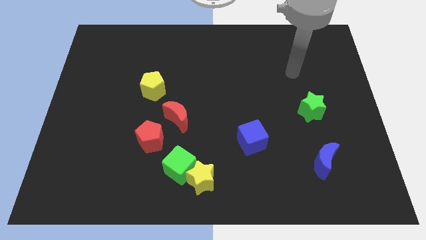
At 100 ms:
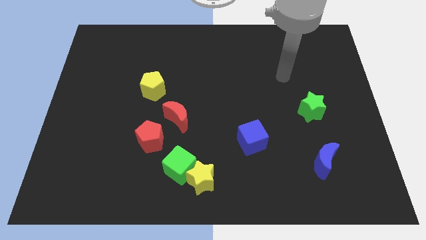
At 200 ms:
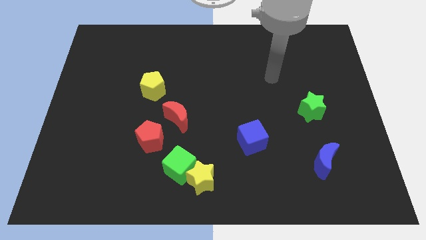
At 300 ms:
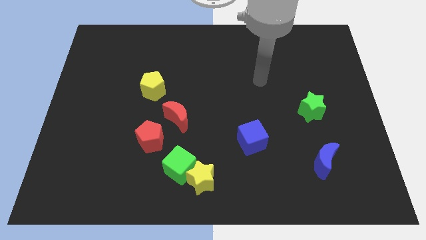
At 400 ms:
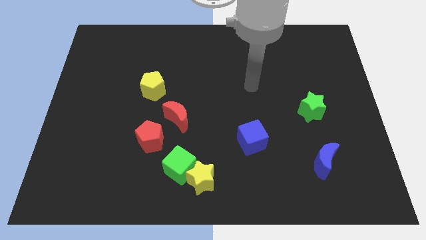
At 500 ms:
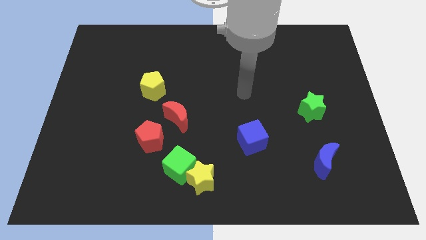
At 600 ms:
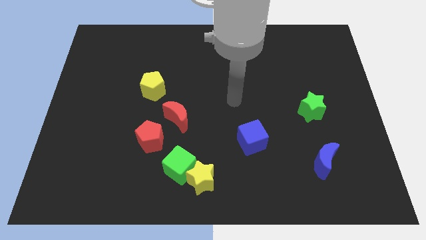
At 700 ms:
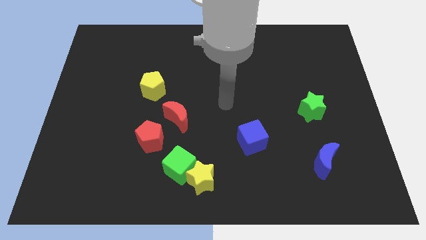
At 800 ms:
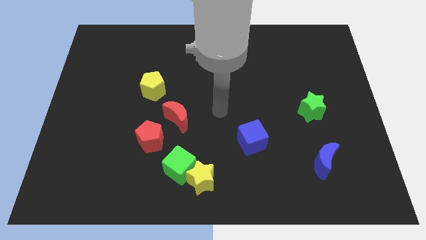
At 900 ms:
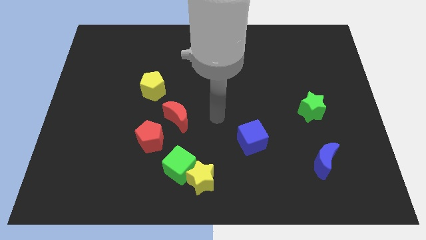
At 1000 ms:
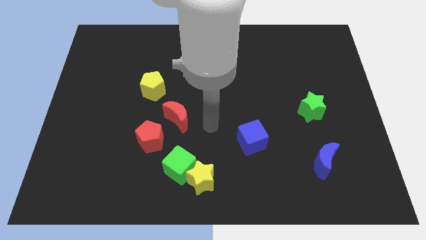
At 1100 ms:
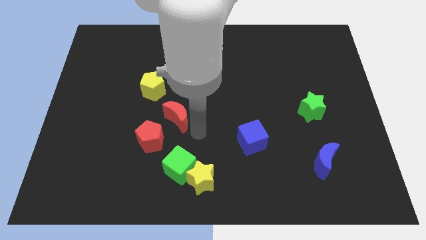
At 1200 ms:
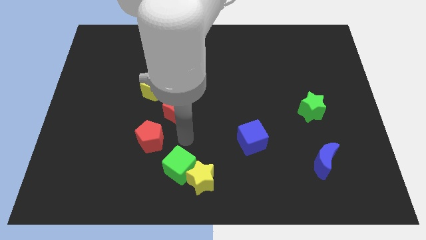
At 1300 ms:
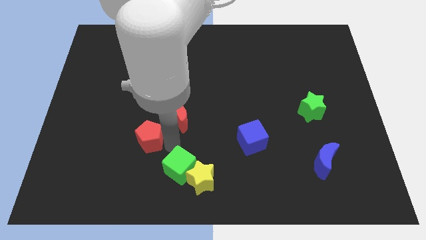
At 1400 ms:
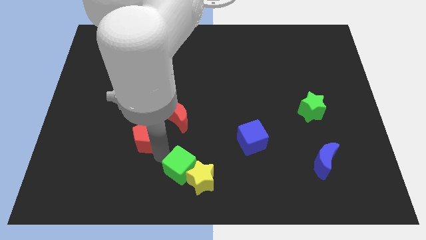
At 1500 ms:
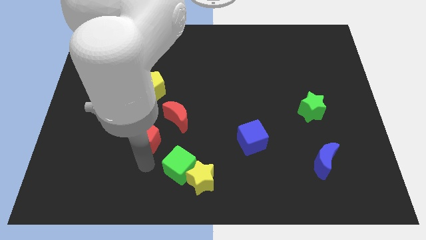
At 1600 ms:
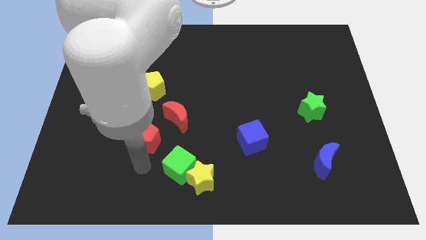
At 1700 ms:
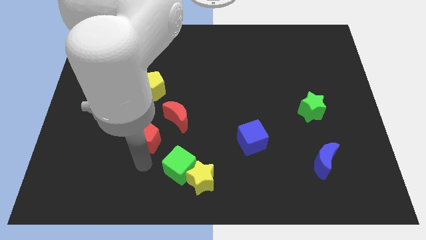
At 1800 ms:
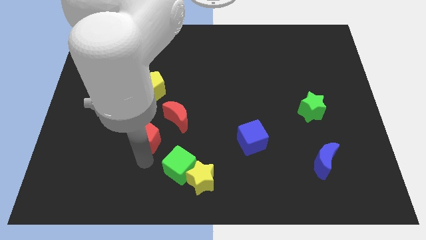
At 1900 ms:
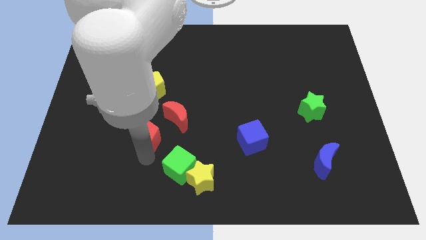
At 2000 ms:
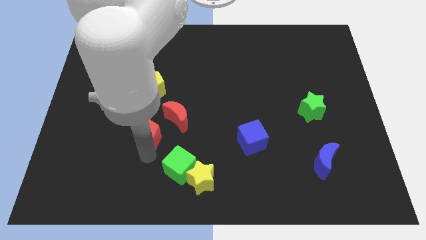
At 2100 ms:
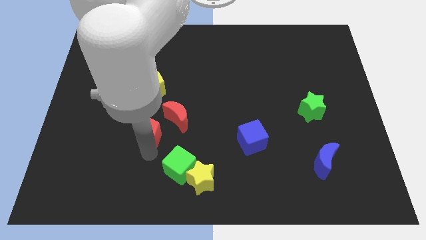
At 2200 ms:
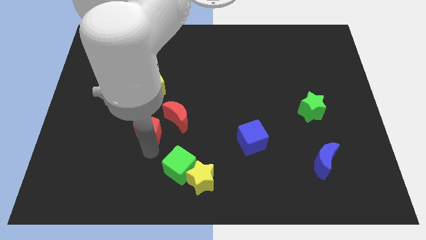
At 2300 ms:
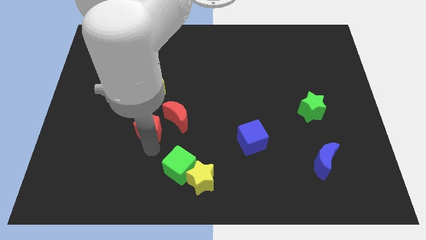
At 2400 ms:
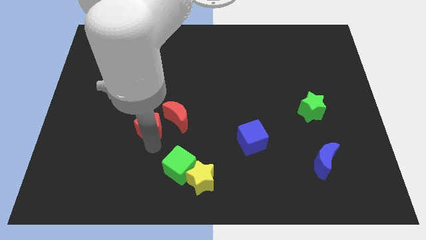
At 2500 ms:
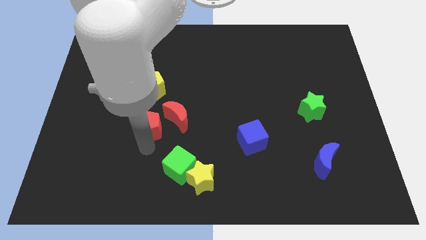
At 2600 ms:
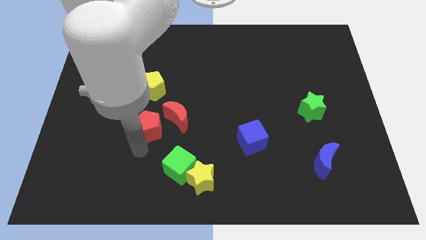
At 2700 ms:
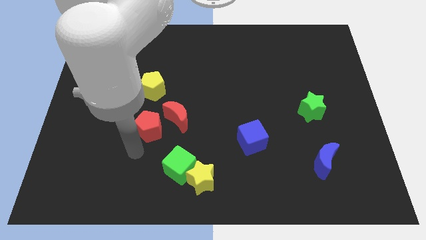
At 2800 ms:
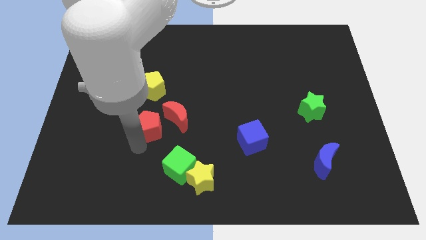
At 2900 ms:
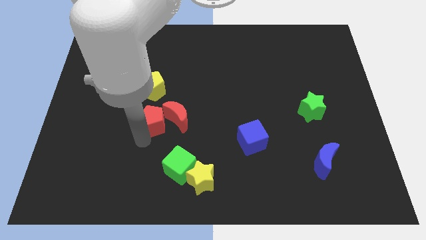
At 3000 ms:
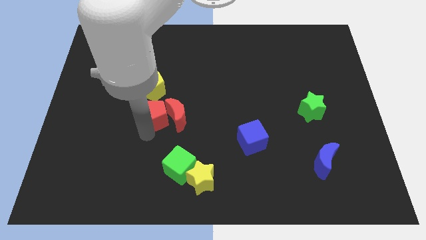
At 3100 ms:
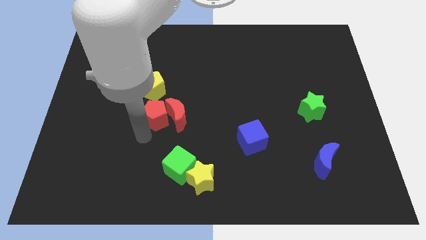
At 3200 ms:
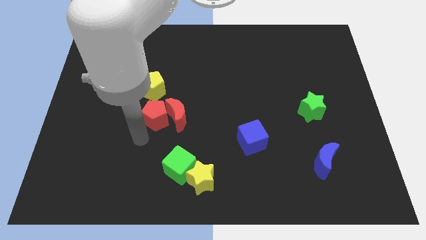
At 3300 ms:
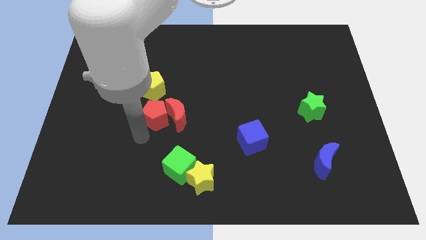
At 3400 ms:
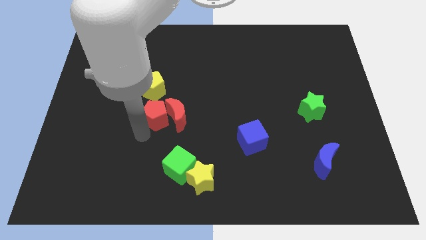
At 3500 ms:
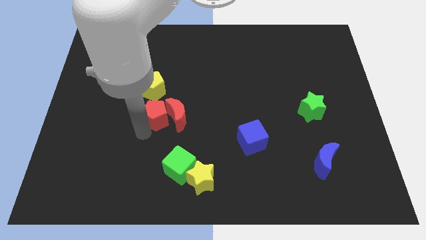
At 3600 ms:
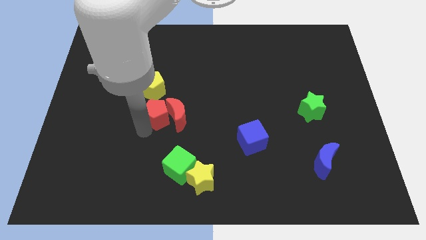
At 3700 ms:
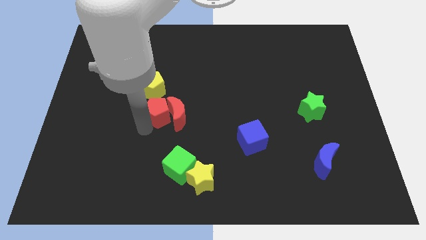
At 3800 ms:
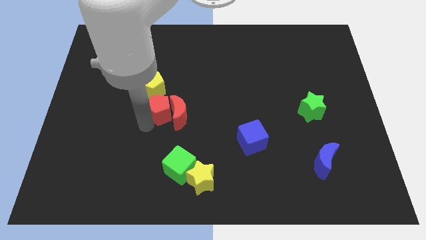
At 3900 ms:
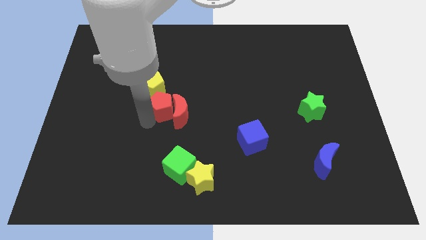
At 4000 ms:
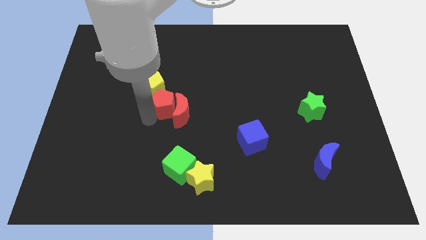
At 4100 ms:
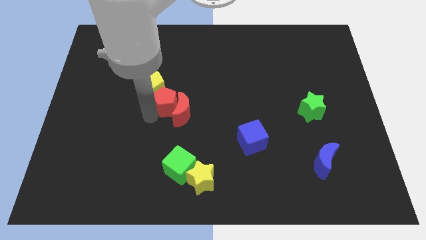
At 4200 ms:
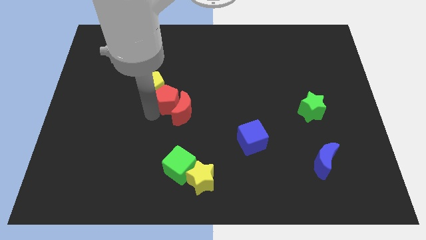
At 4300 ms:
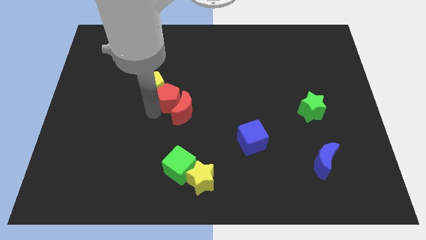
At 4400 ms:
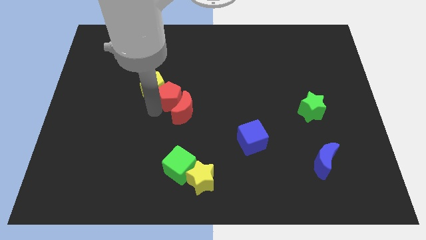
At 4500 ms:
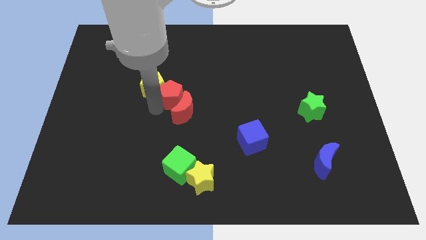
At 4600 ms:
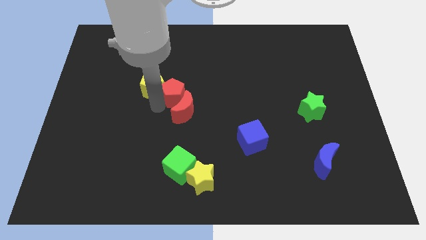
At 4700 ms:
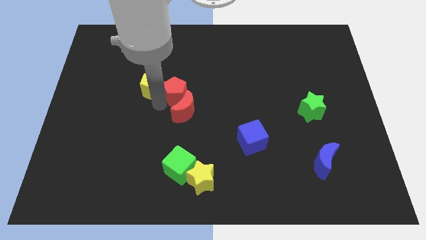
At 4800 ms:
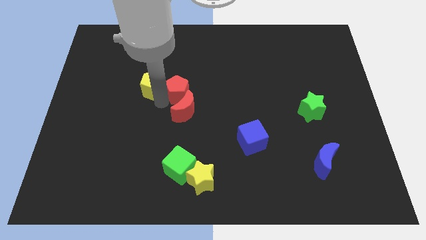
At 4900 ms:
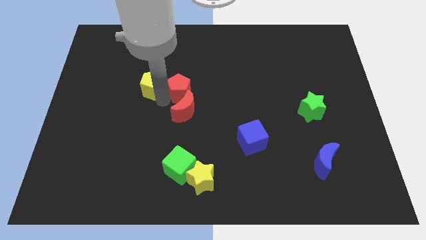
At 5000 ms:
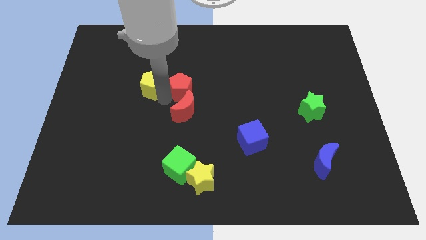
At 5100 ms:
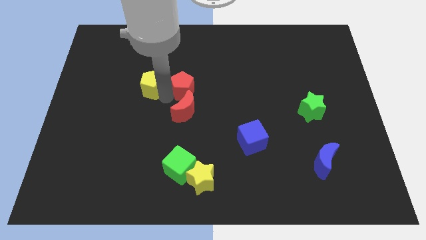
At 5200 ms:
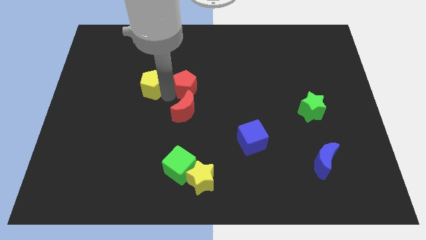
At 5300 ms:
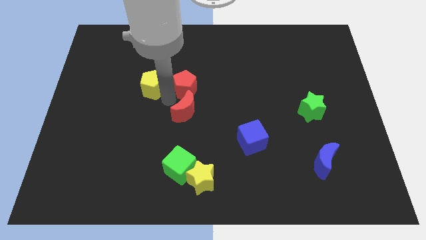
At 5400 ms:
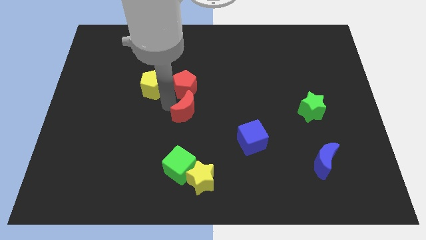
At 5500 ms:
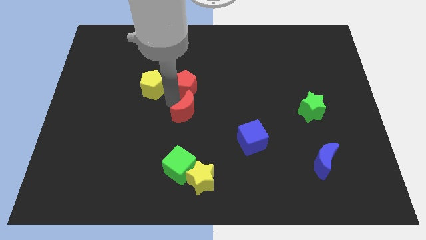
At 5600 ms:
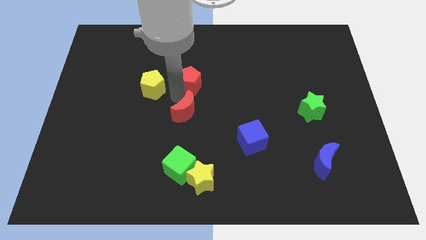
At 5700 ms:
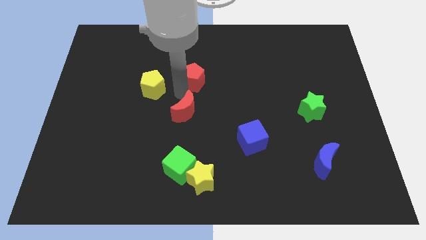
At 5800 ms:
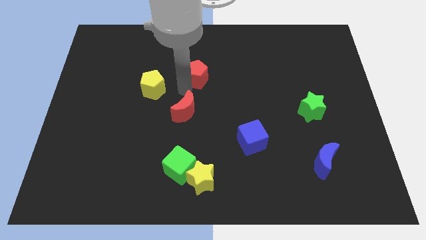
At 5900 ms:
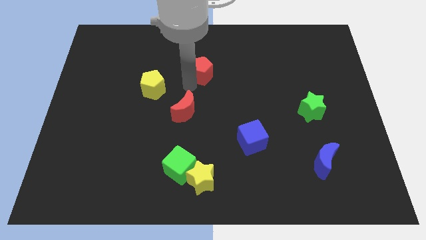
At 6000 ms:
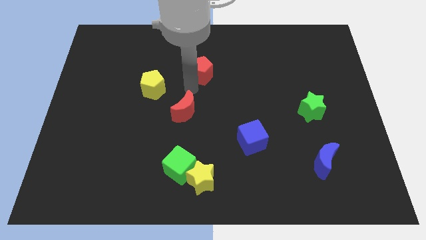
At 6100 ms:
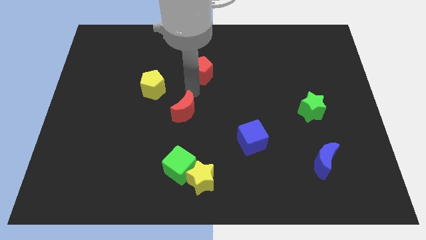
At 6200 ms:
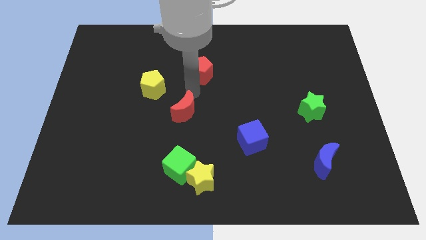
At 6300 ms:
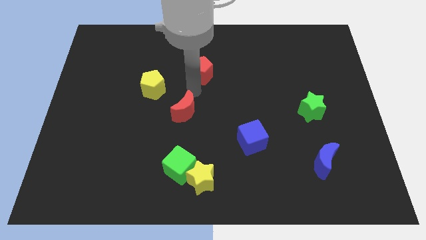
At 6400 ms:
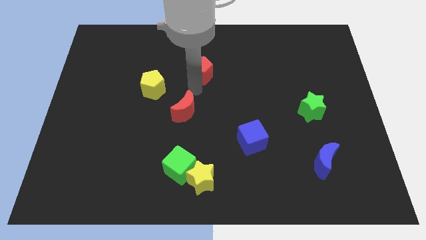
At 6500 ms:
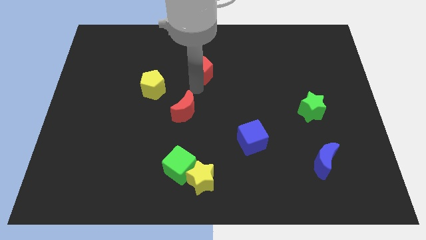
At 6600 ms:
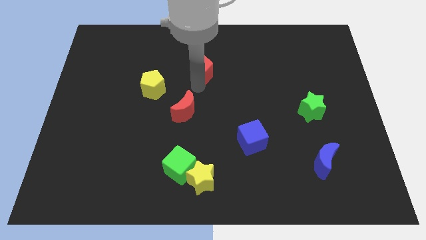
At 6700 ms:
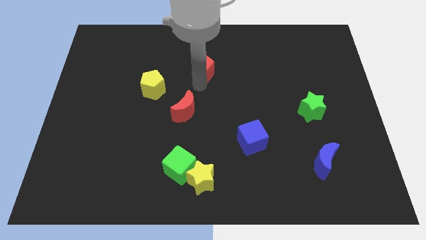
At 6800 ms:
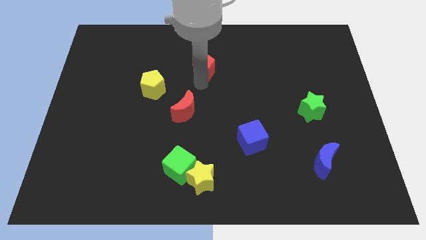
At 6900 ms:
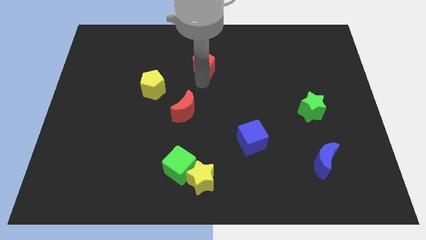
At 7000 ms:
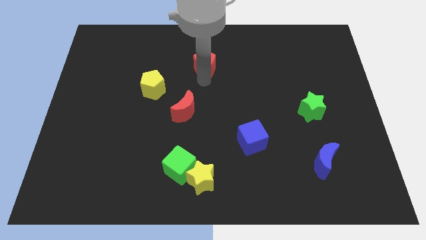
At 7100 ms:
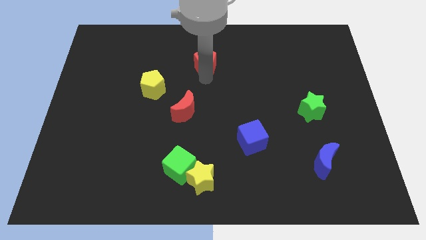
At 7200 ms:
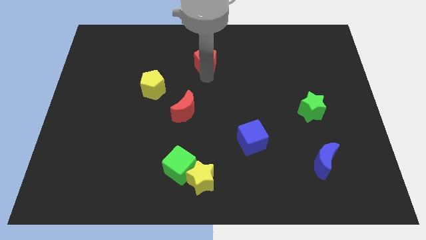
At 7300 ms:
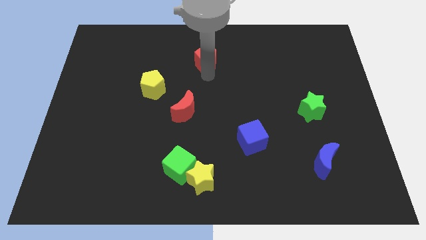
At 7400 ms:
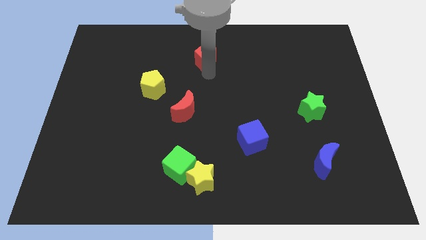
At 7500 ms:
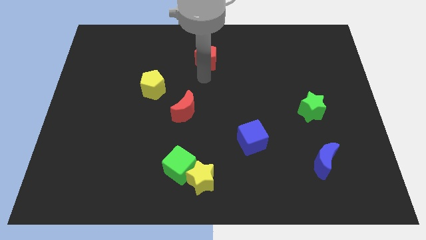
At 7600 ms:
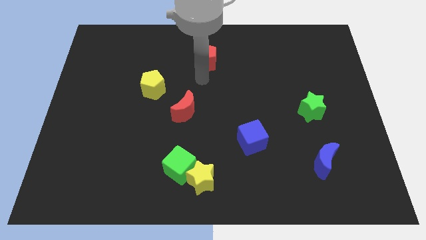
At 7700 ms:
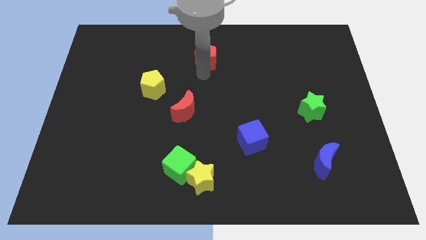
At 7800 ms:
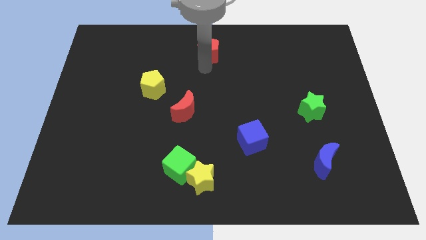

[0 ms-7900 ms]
put the red pentagon to the top side
